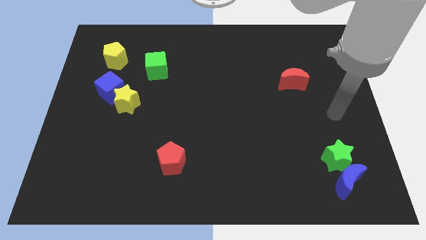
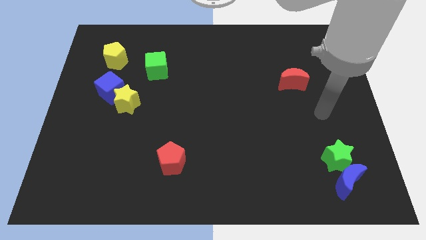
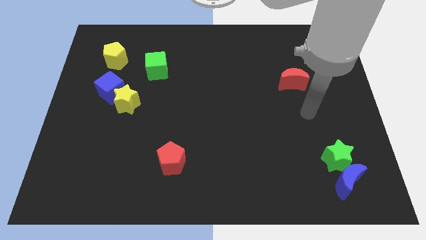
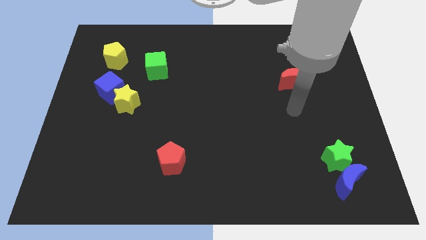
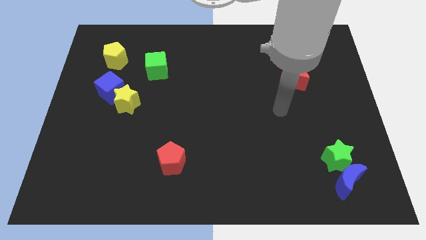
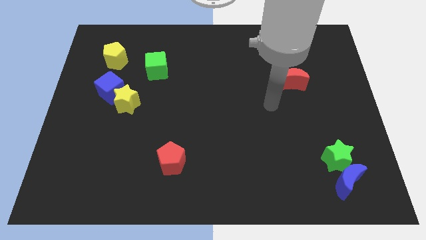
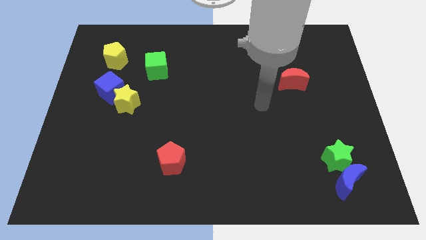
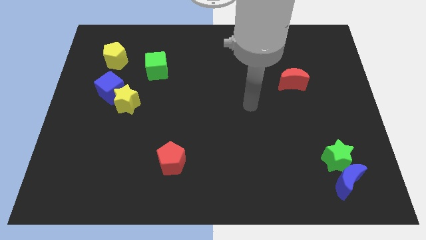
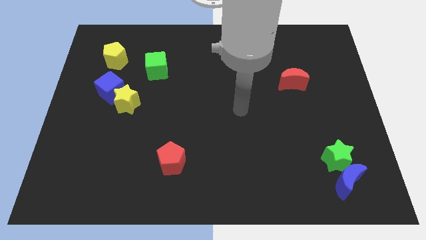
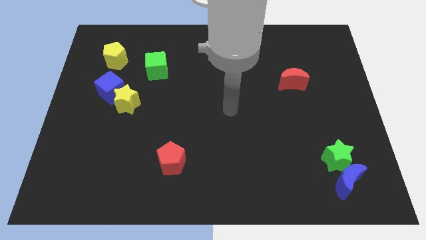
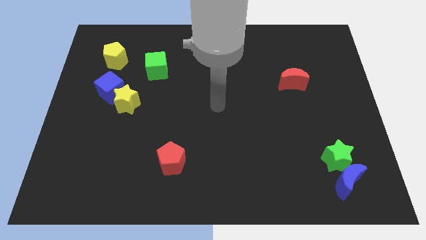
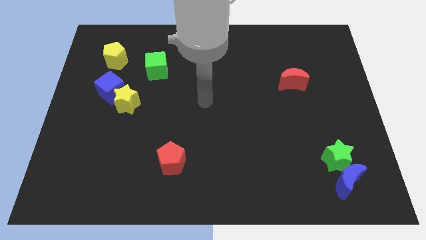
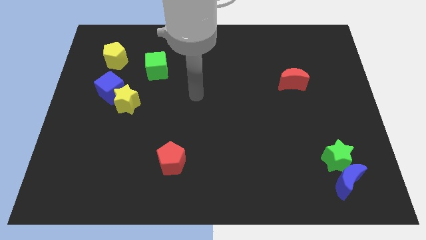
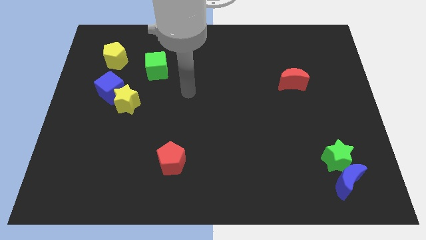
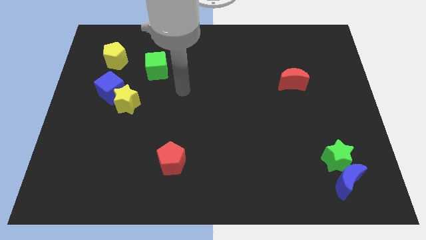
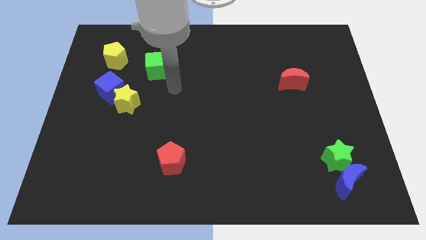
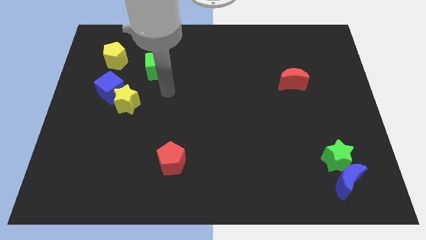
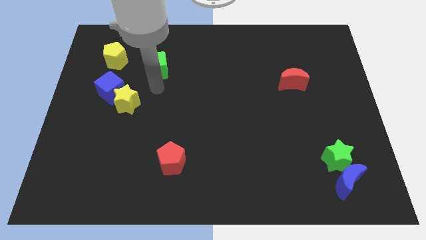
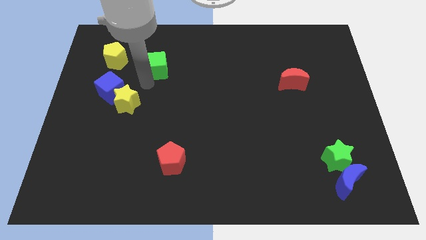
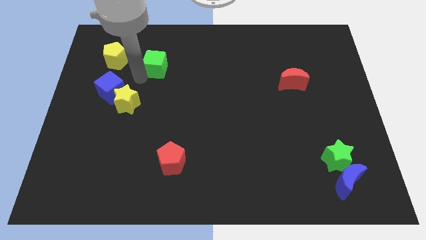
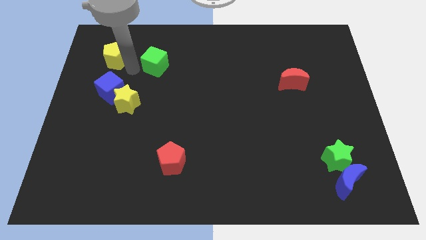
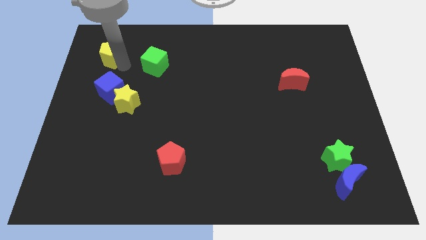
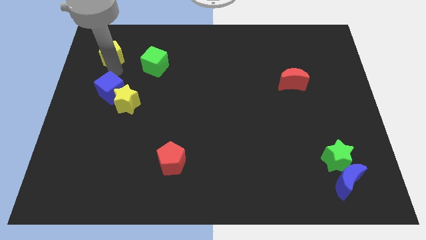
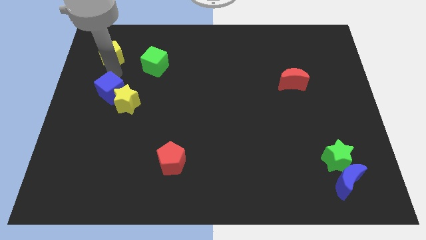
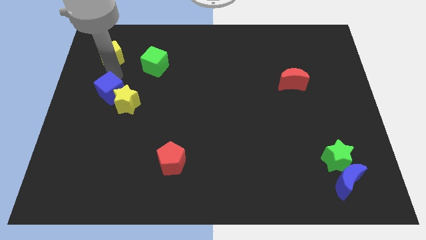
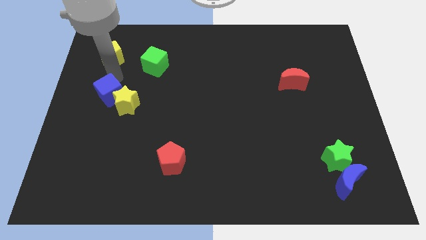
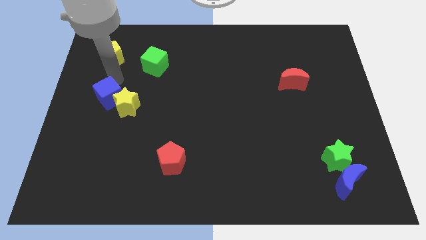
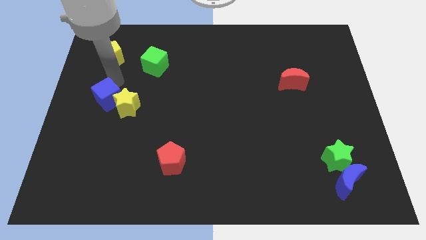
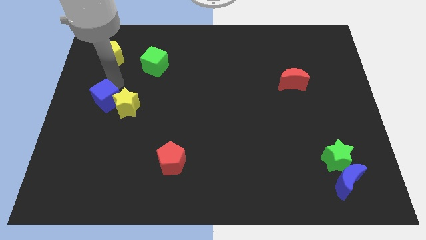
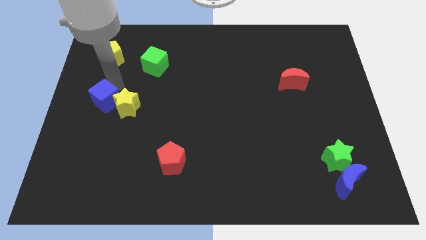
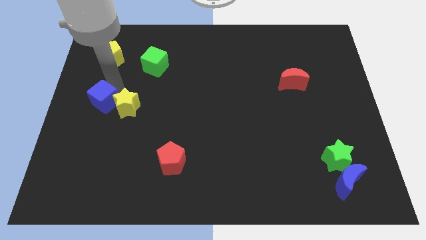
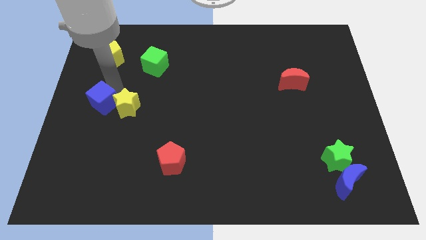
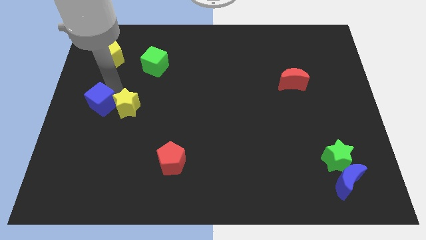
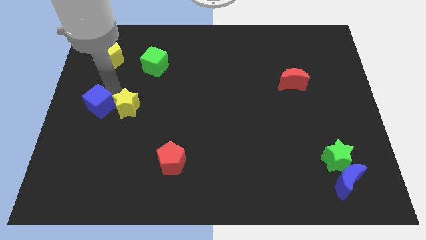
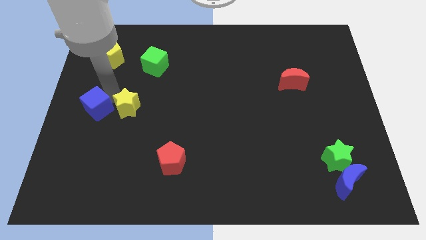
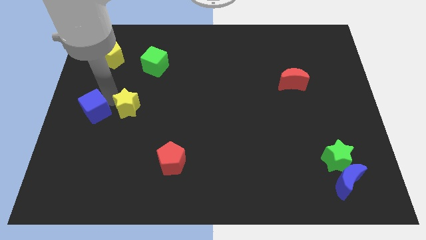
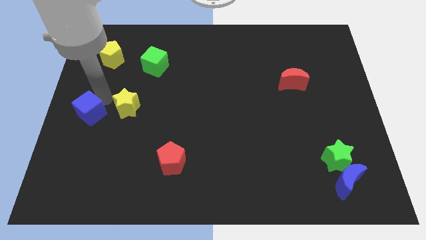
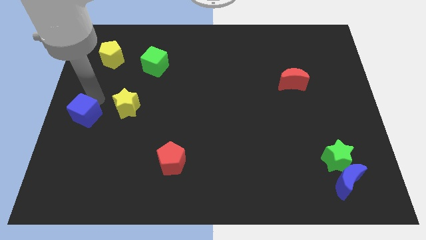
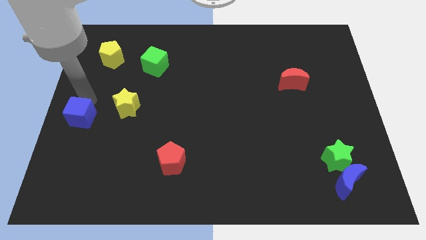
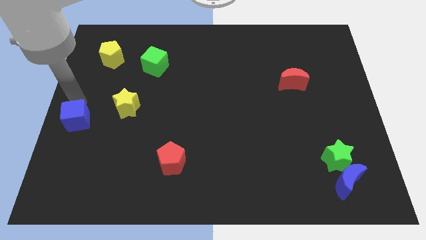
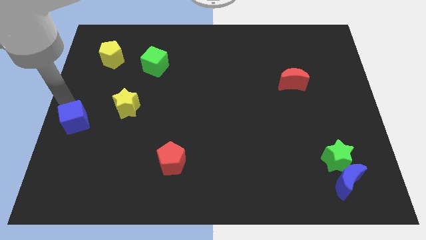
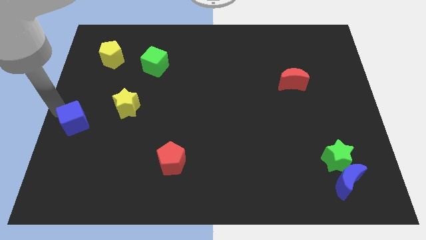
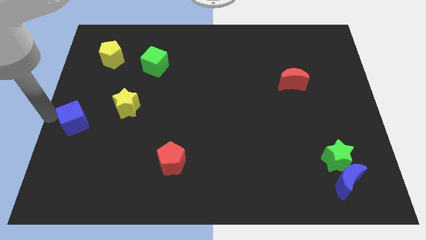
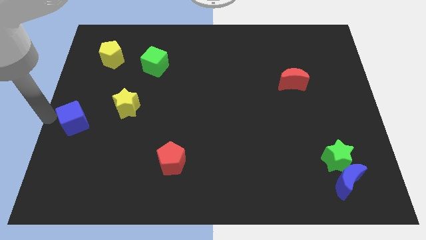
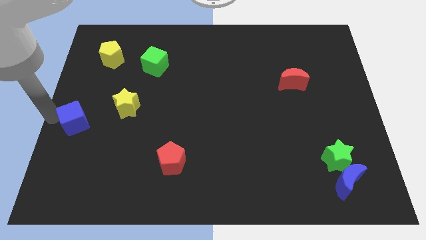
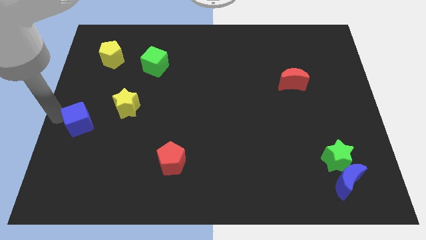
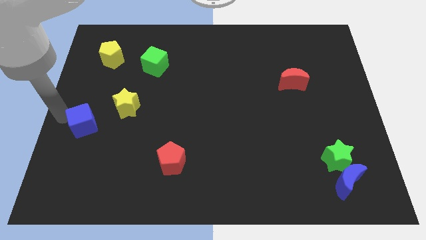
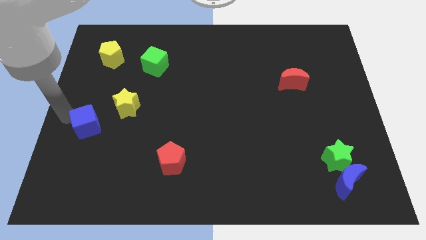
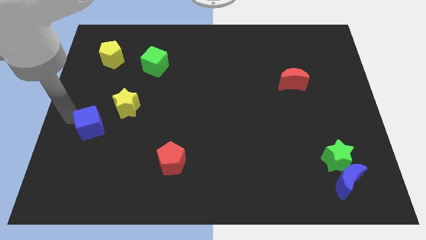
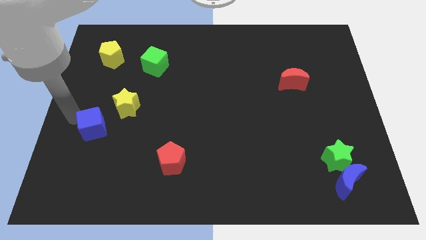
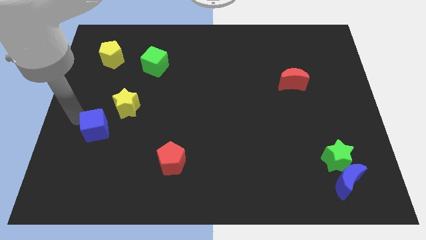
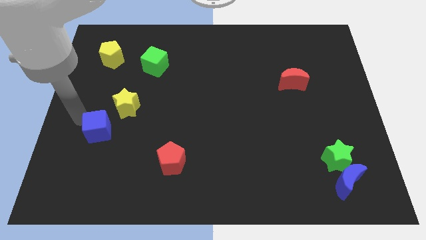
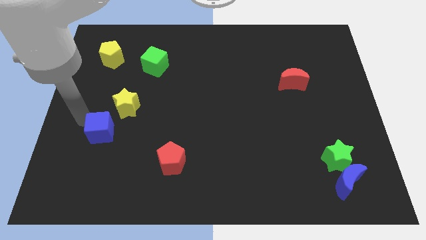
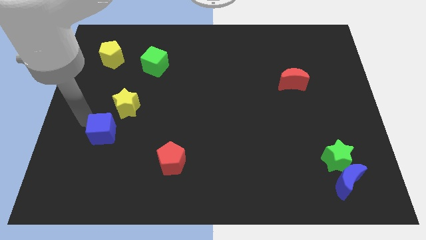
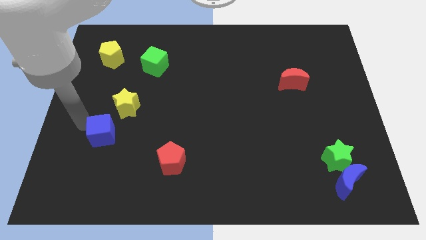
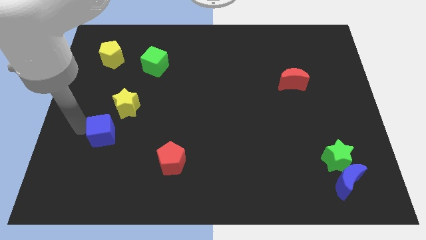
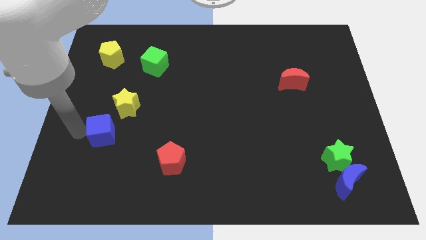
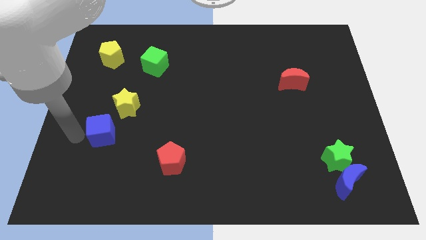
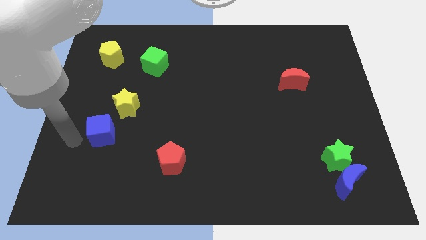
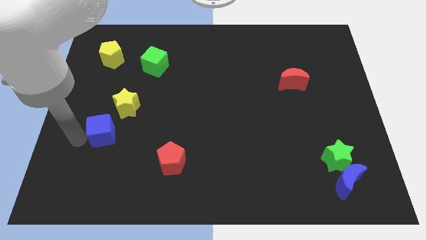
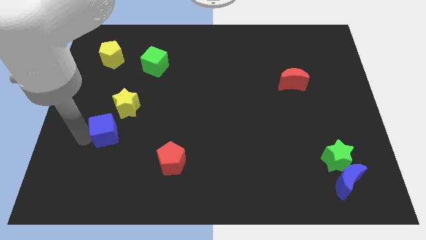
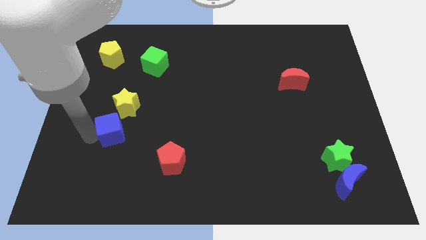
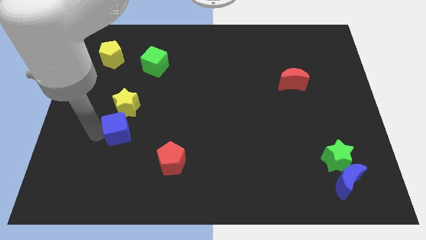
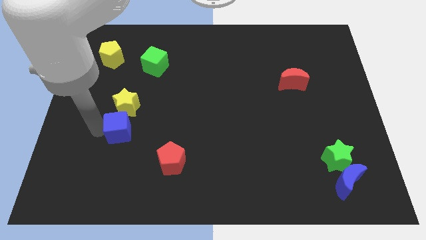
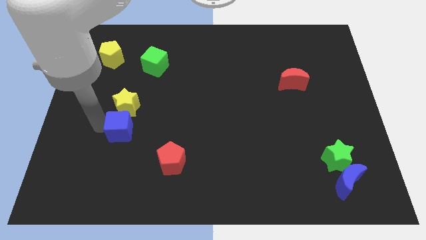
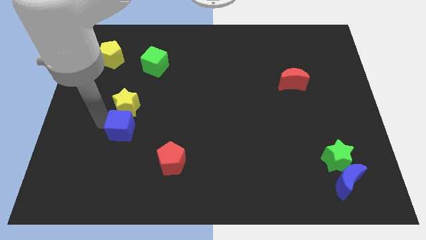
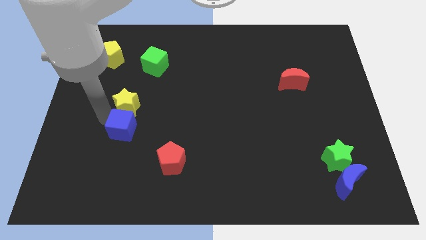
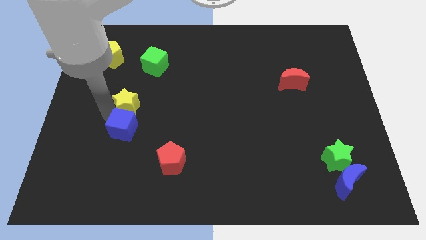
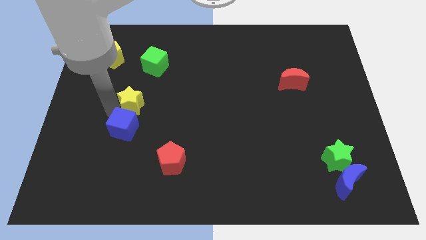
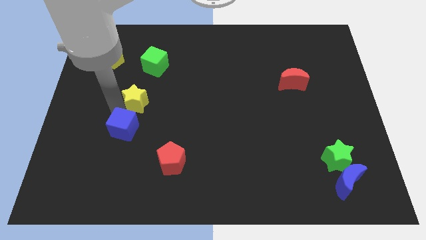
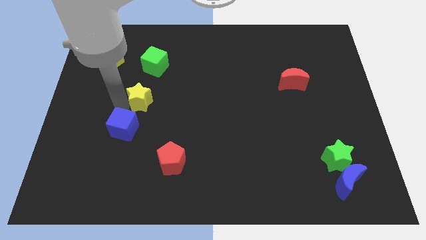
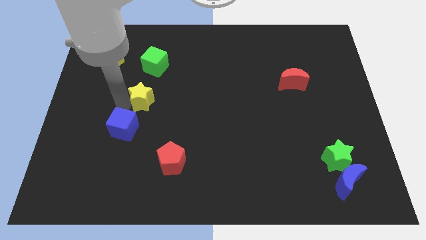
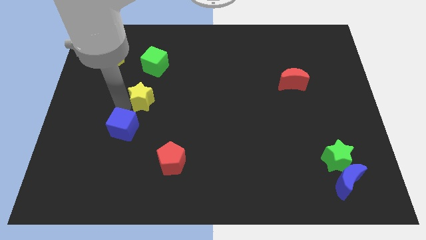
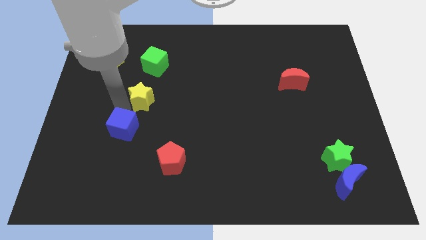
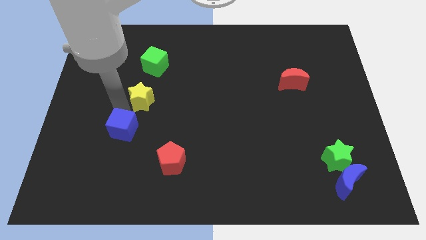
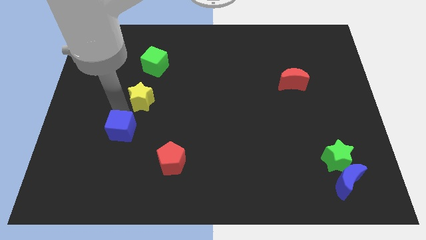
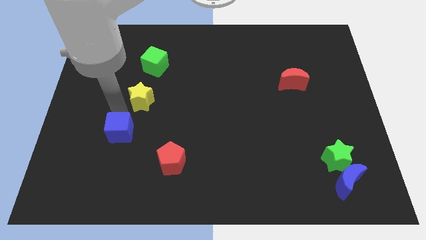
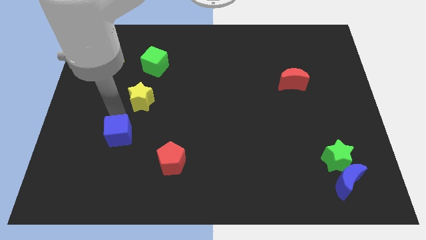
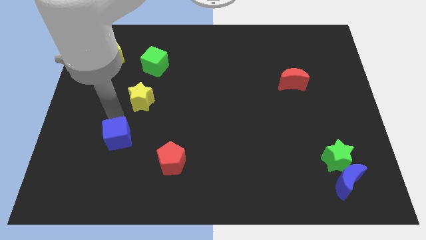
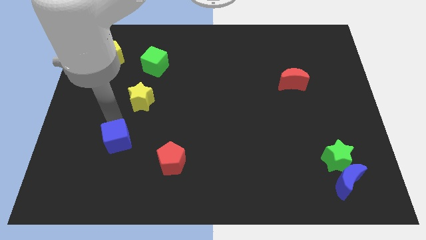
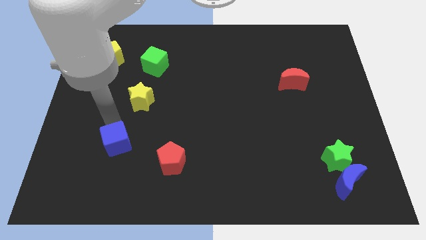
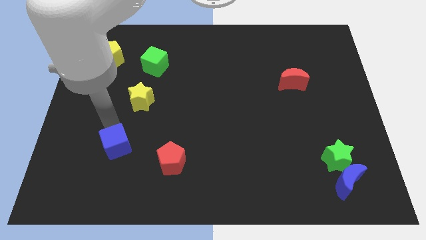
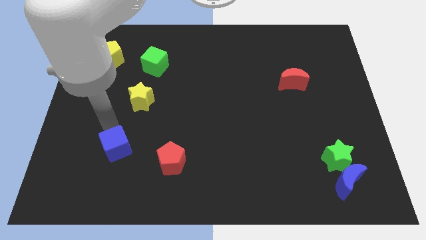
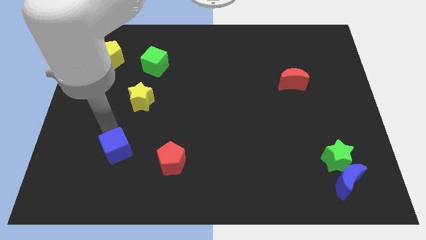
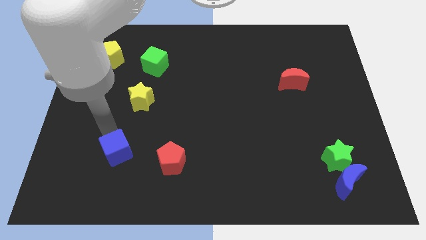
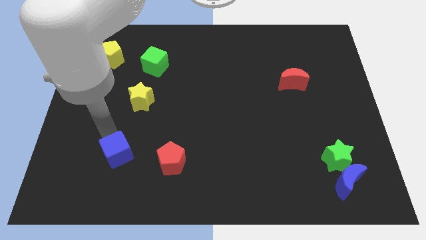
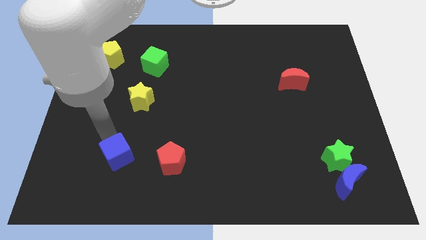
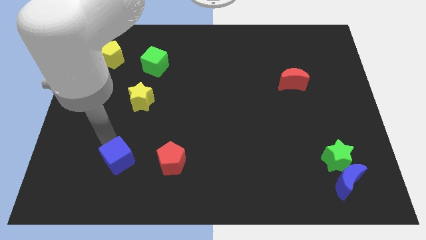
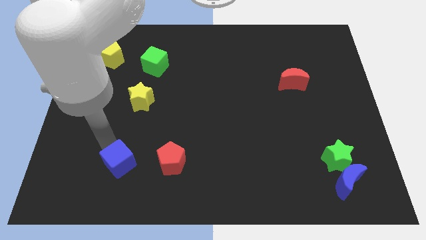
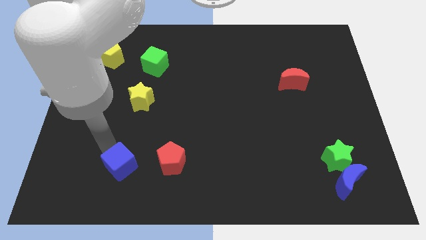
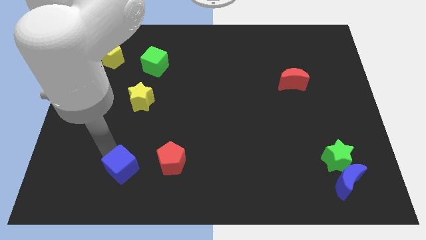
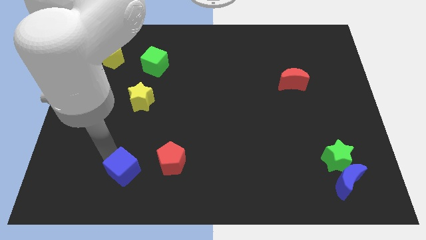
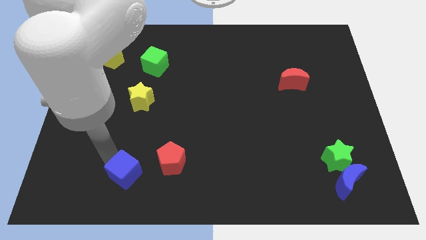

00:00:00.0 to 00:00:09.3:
slide the blue cube to the bottom left of the red pentagon
